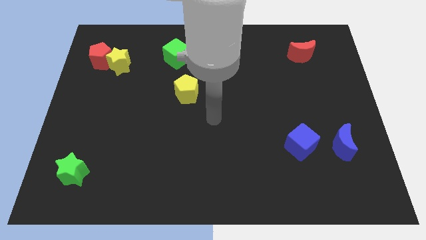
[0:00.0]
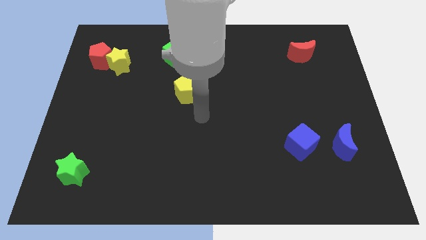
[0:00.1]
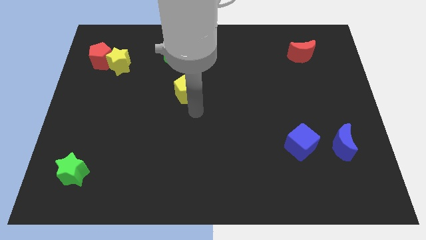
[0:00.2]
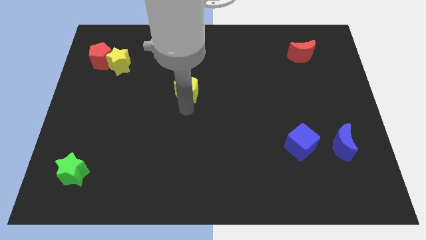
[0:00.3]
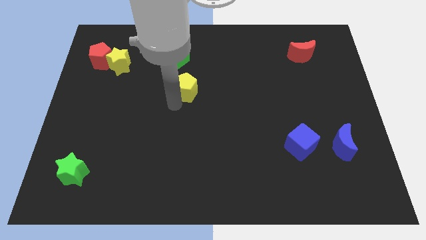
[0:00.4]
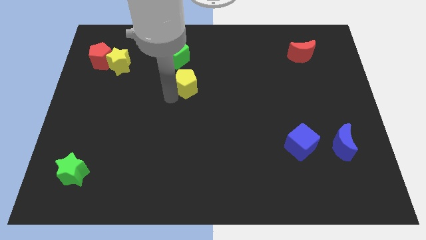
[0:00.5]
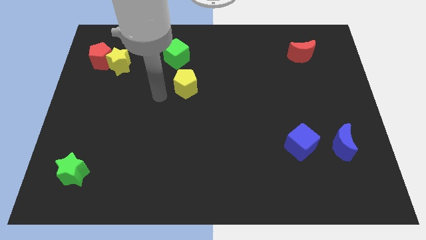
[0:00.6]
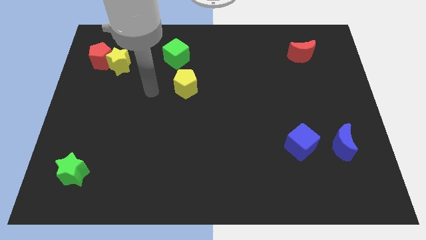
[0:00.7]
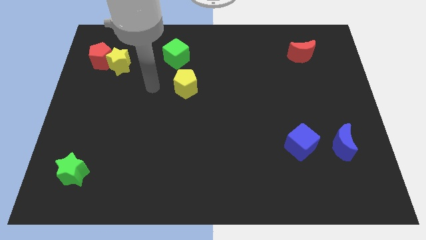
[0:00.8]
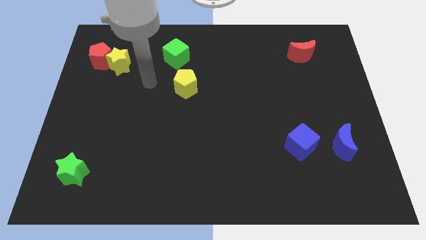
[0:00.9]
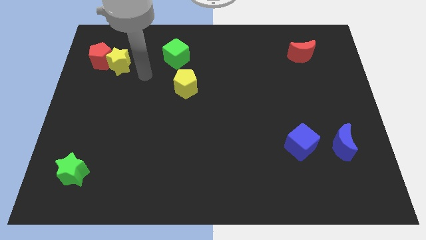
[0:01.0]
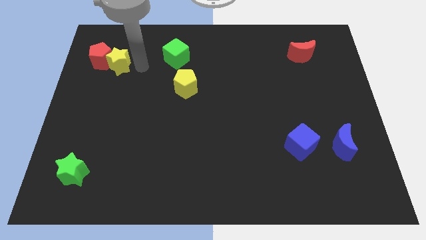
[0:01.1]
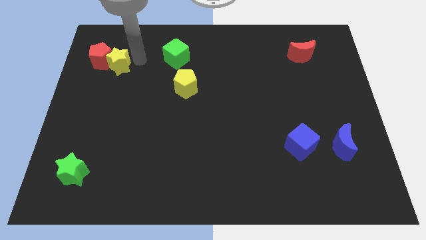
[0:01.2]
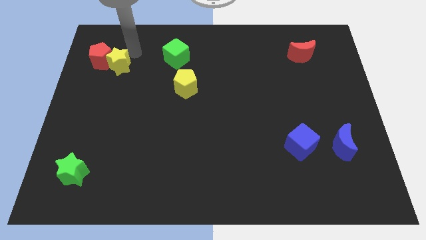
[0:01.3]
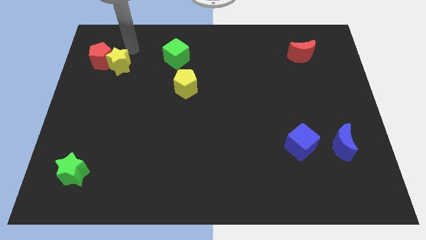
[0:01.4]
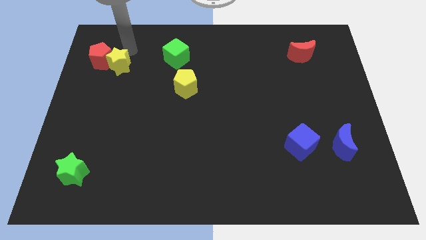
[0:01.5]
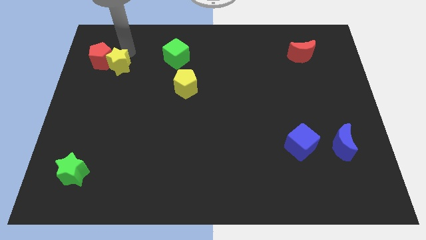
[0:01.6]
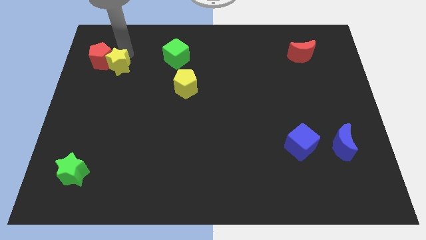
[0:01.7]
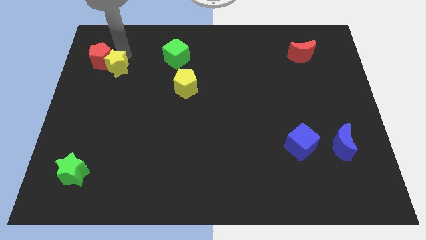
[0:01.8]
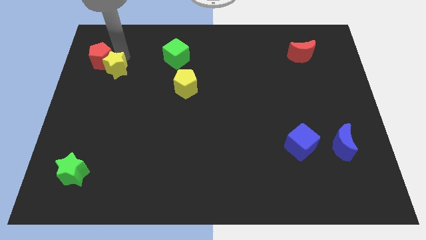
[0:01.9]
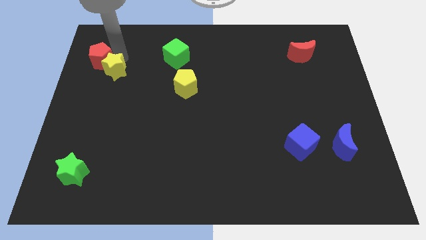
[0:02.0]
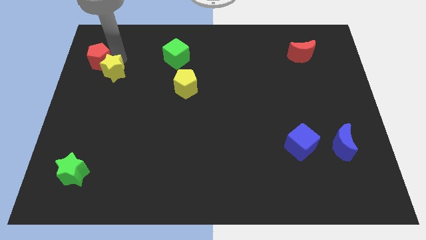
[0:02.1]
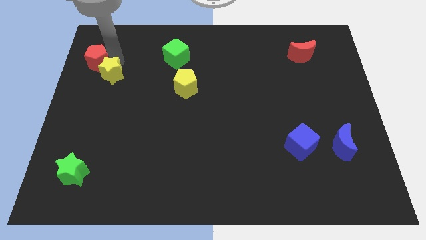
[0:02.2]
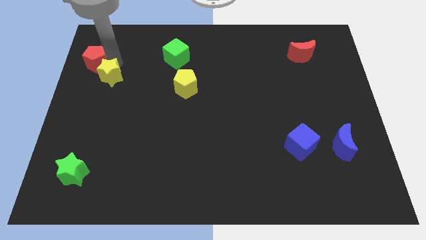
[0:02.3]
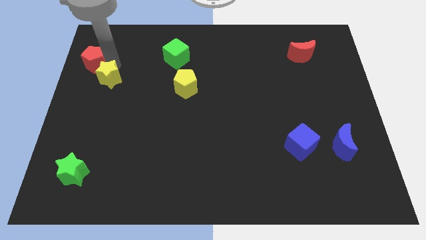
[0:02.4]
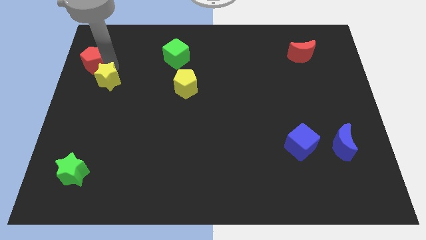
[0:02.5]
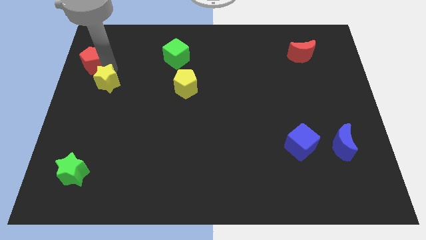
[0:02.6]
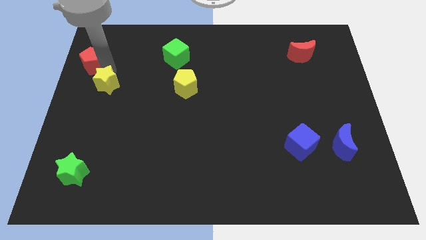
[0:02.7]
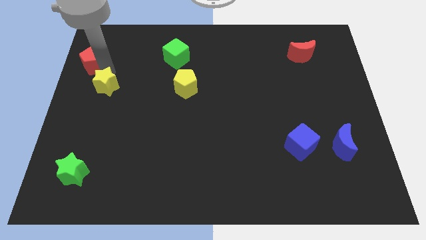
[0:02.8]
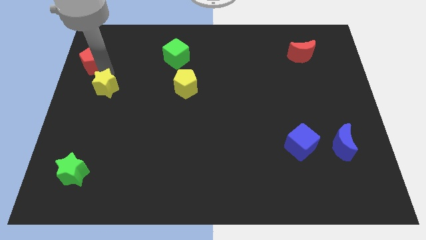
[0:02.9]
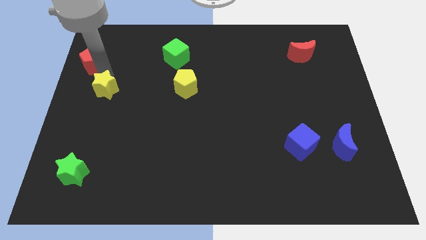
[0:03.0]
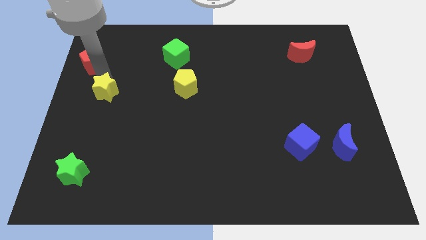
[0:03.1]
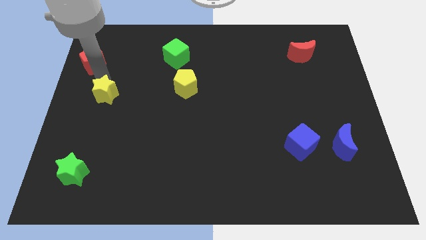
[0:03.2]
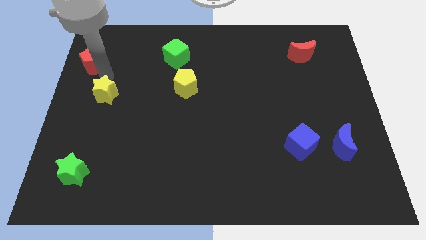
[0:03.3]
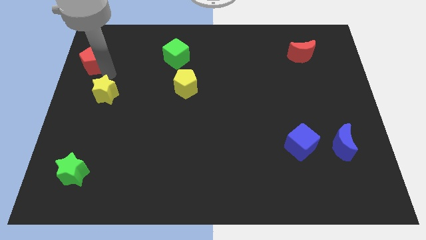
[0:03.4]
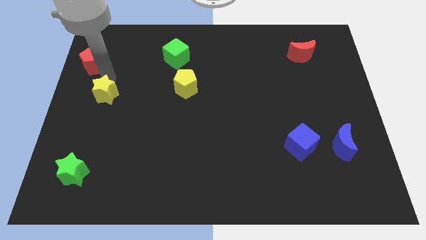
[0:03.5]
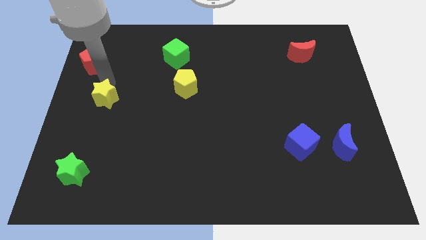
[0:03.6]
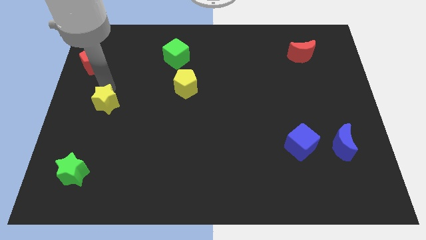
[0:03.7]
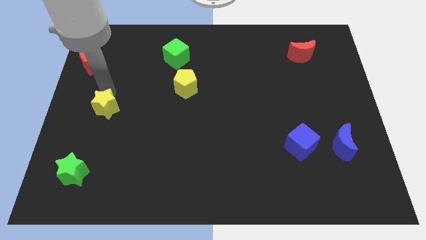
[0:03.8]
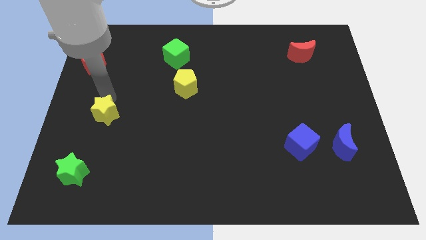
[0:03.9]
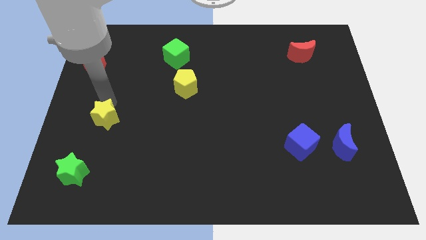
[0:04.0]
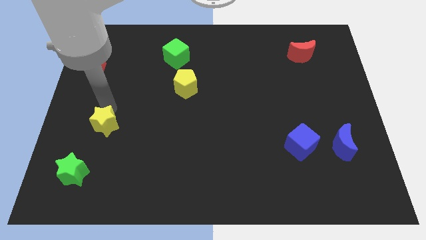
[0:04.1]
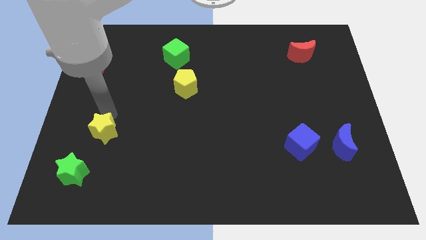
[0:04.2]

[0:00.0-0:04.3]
push the yellow star down

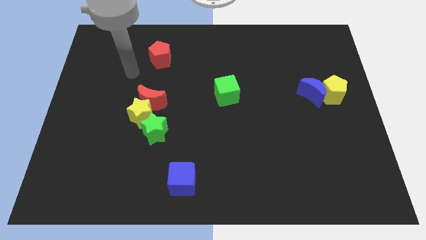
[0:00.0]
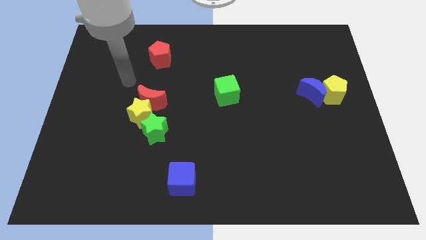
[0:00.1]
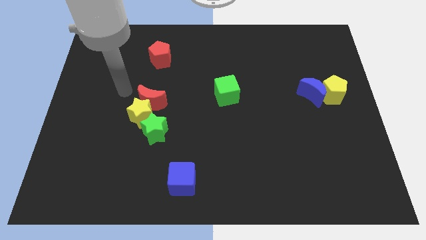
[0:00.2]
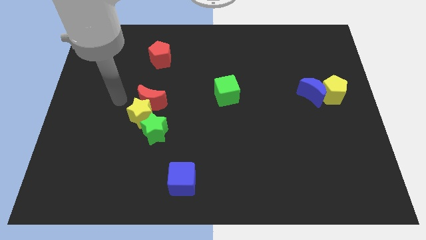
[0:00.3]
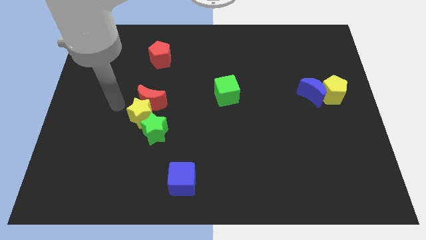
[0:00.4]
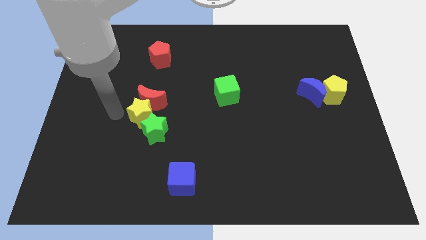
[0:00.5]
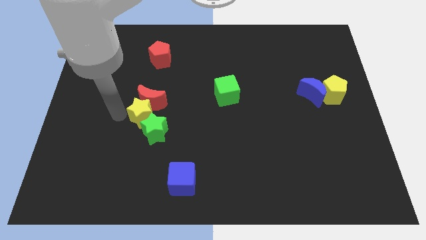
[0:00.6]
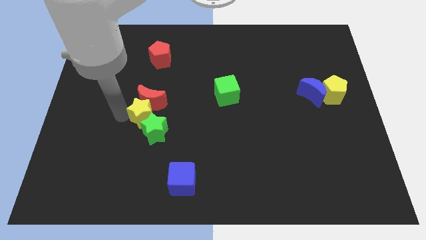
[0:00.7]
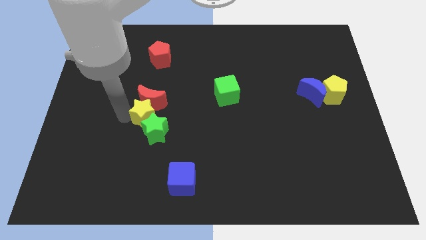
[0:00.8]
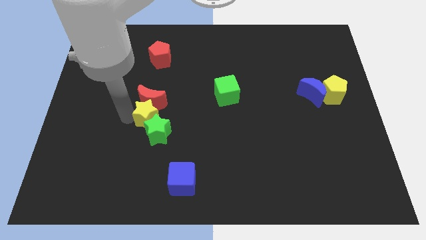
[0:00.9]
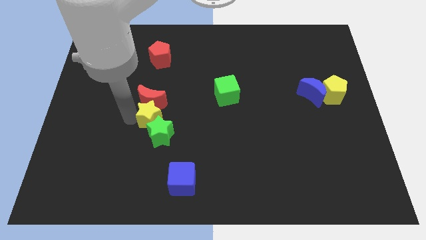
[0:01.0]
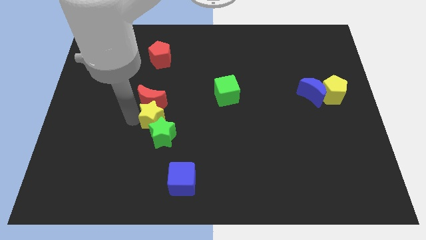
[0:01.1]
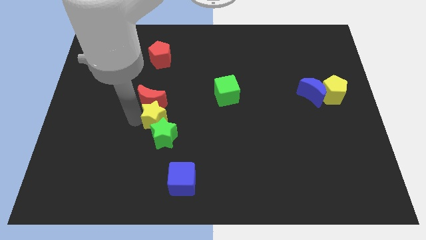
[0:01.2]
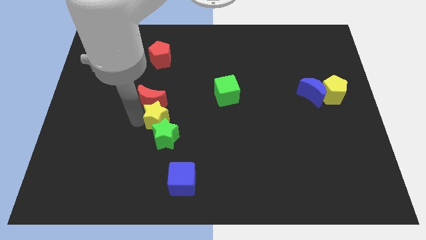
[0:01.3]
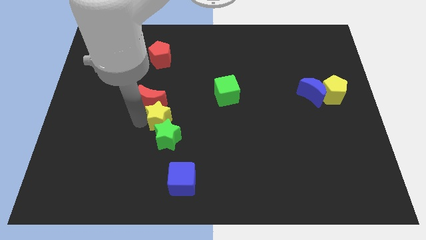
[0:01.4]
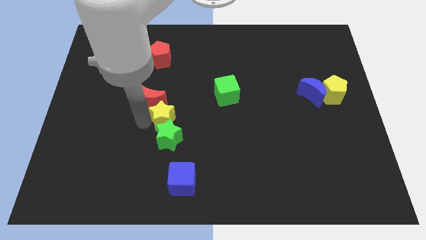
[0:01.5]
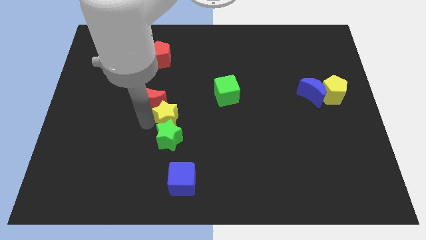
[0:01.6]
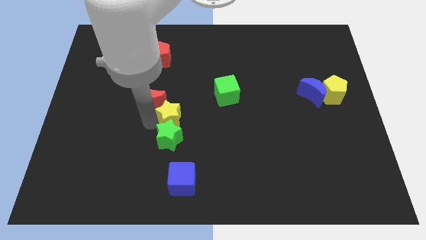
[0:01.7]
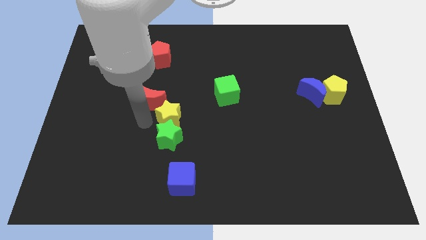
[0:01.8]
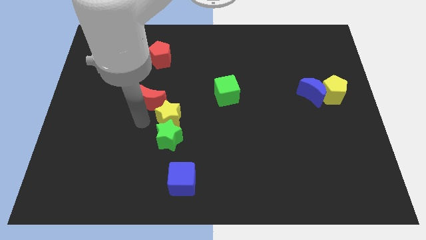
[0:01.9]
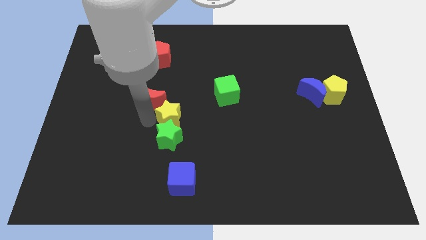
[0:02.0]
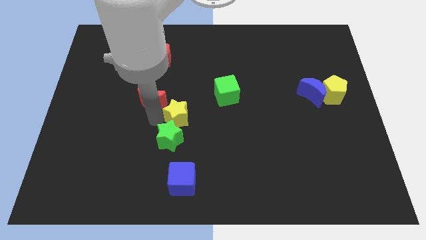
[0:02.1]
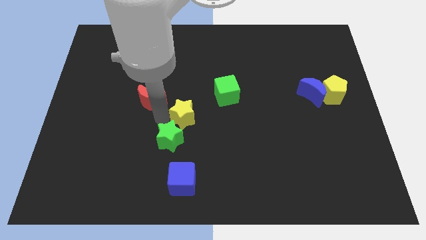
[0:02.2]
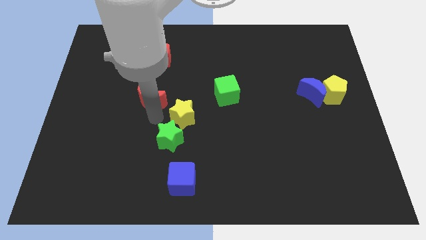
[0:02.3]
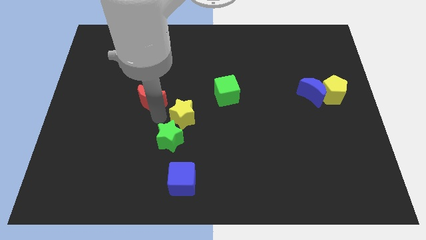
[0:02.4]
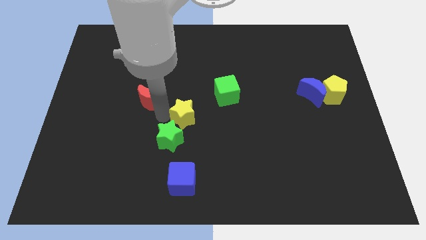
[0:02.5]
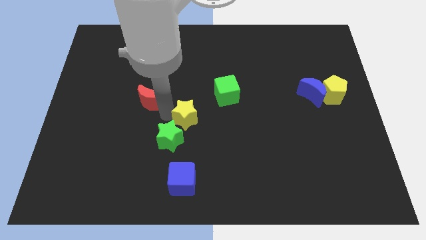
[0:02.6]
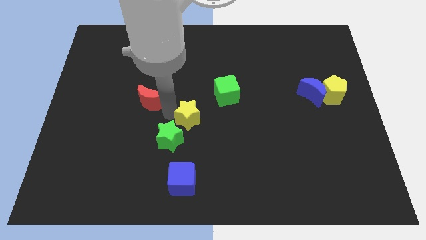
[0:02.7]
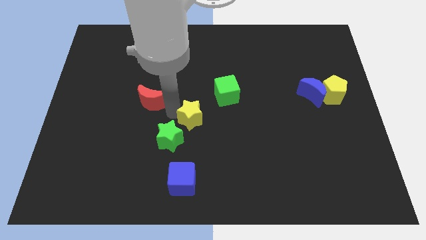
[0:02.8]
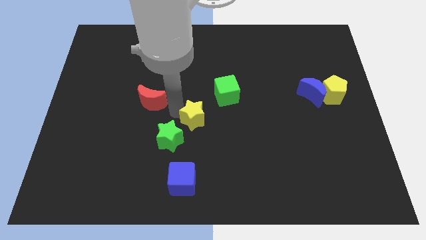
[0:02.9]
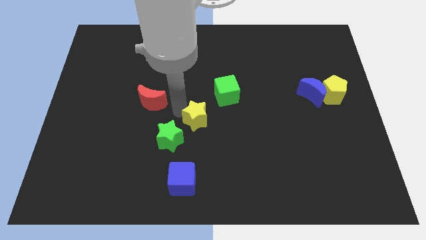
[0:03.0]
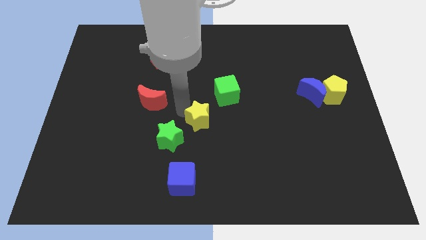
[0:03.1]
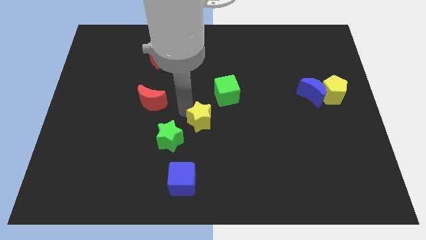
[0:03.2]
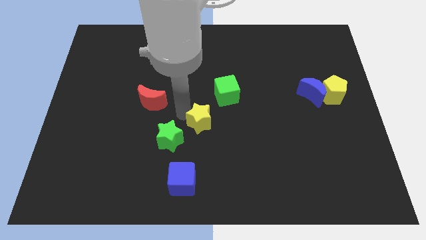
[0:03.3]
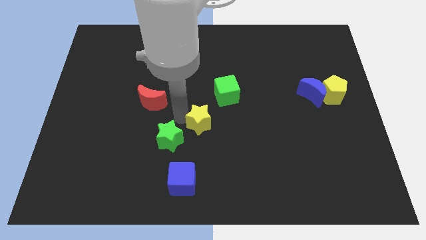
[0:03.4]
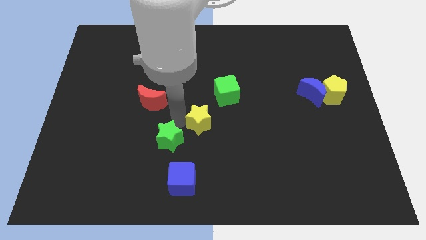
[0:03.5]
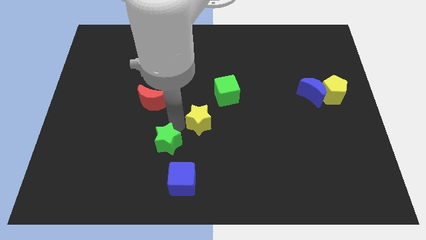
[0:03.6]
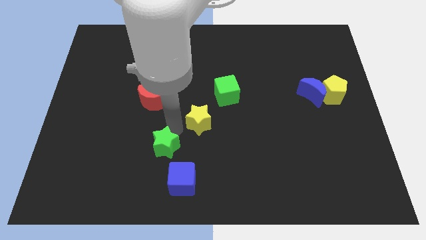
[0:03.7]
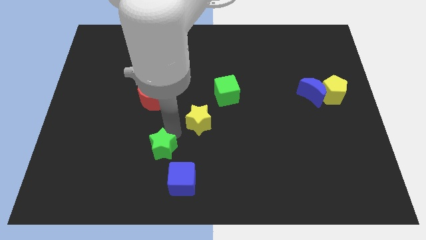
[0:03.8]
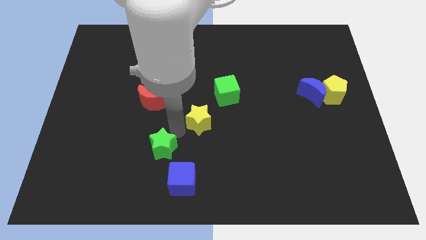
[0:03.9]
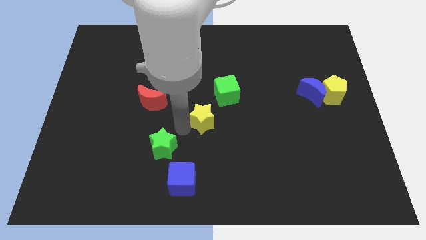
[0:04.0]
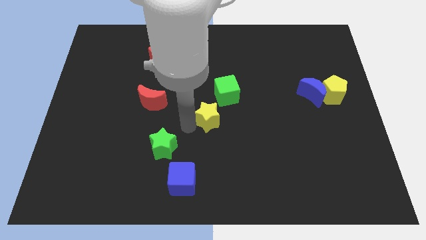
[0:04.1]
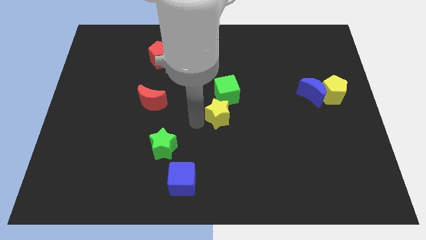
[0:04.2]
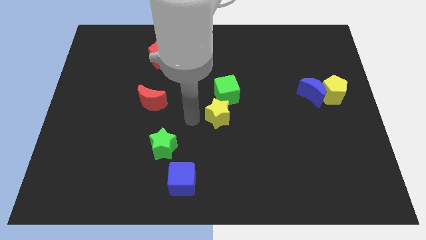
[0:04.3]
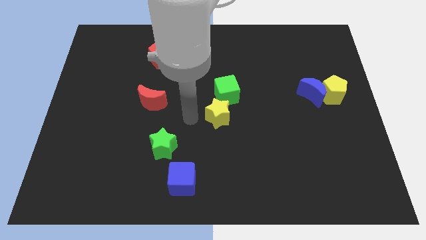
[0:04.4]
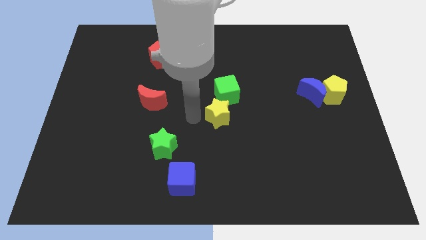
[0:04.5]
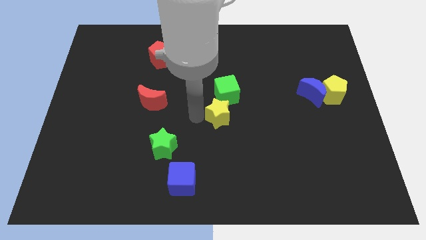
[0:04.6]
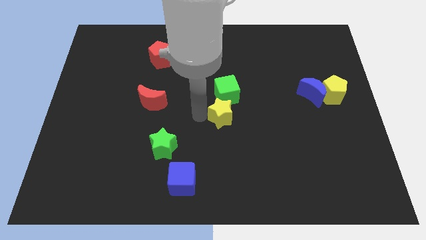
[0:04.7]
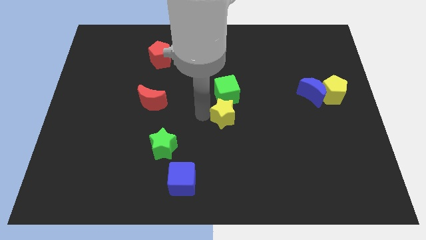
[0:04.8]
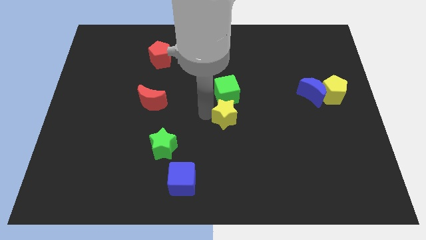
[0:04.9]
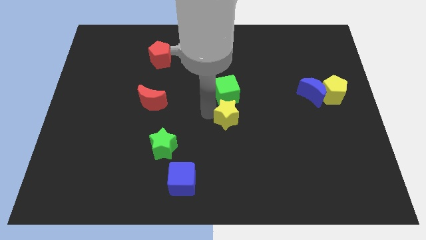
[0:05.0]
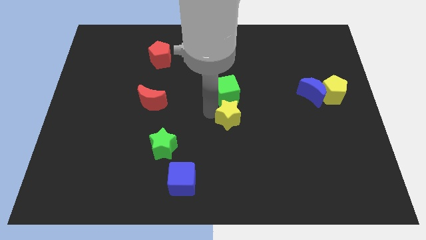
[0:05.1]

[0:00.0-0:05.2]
move the yellow star right
